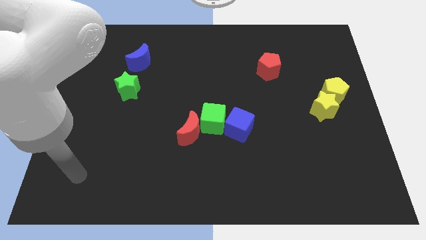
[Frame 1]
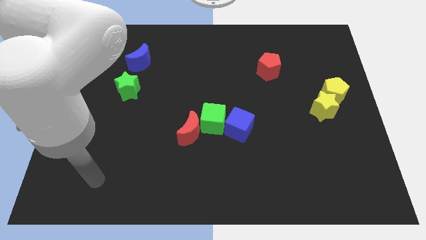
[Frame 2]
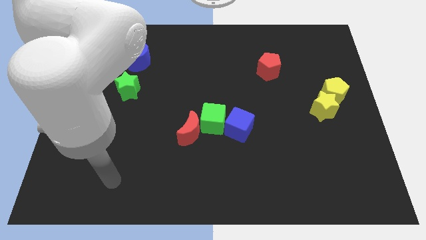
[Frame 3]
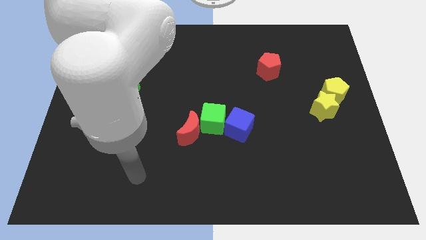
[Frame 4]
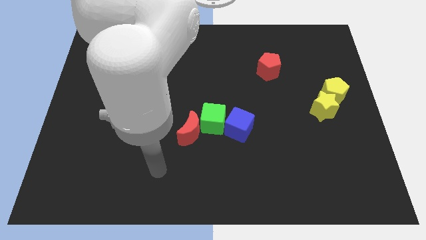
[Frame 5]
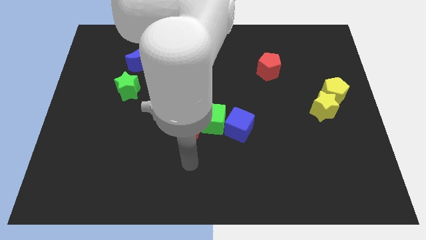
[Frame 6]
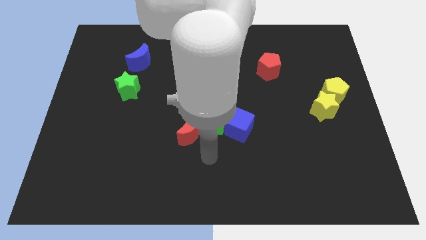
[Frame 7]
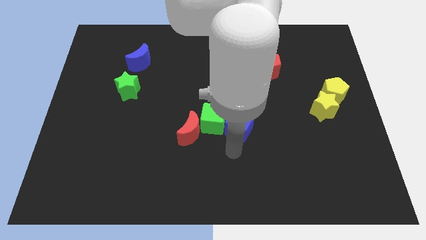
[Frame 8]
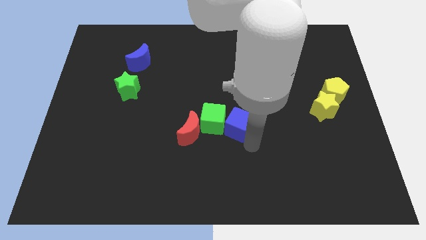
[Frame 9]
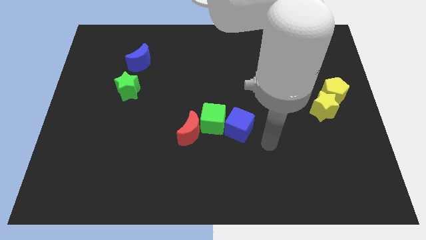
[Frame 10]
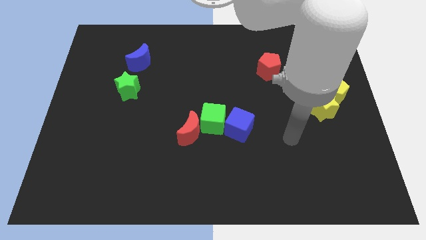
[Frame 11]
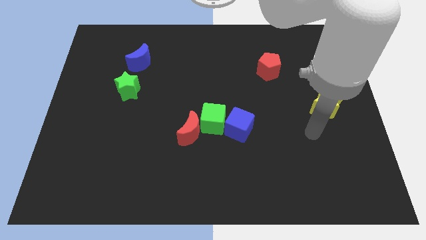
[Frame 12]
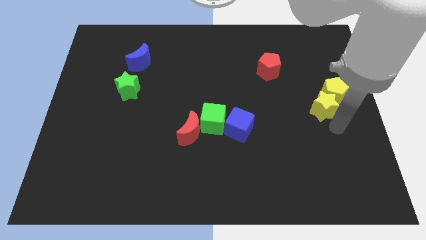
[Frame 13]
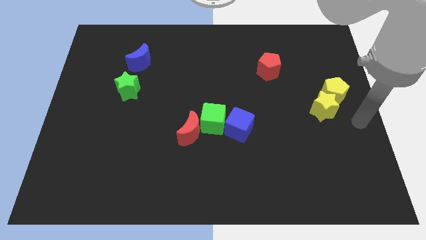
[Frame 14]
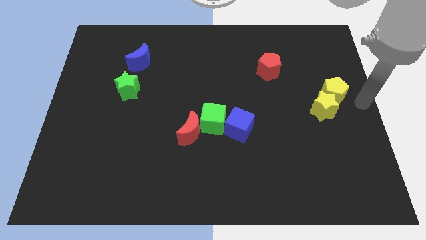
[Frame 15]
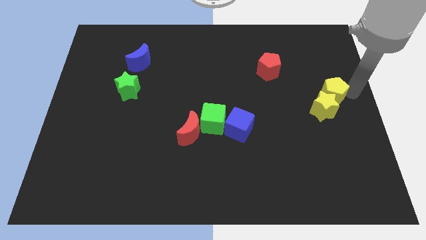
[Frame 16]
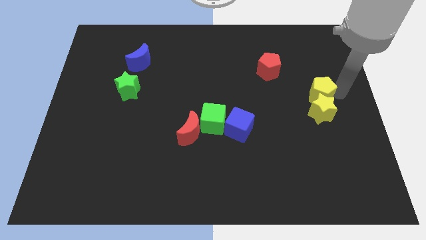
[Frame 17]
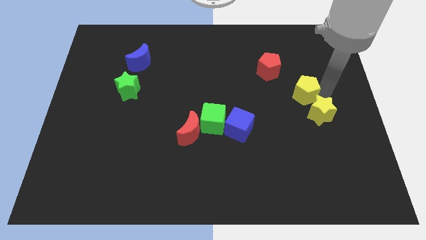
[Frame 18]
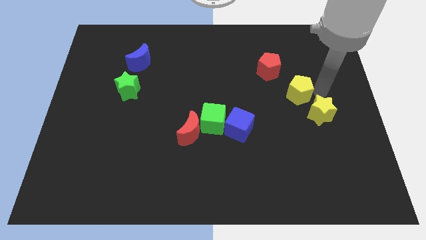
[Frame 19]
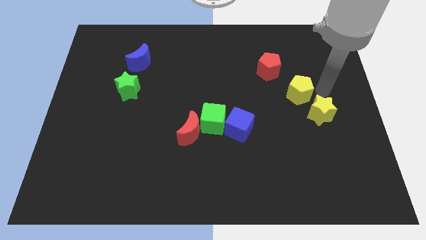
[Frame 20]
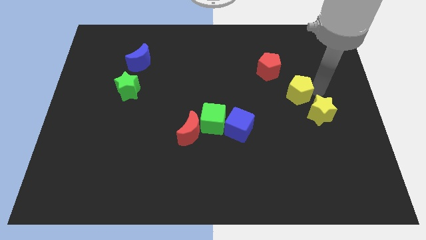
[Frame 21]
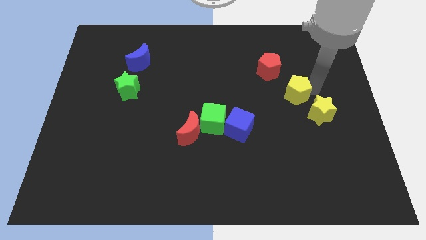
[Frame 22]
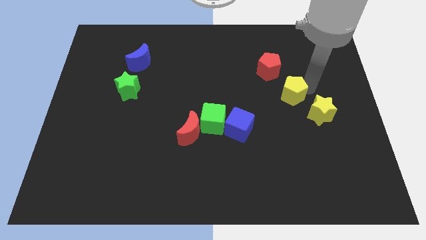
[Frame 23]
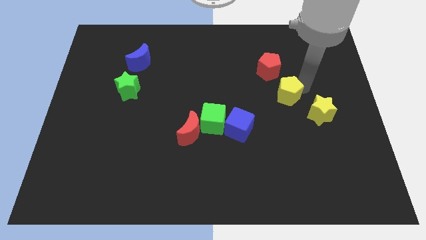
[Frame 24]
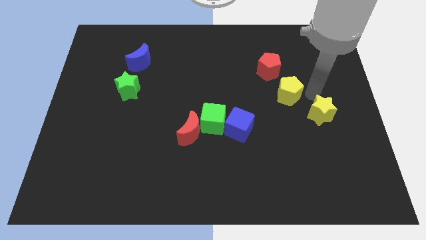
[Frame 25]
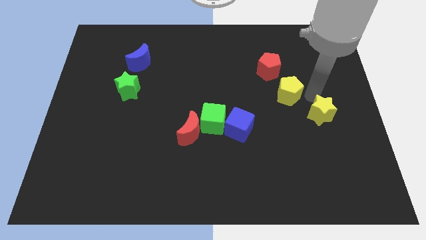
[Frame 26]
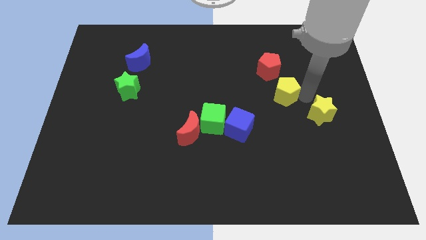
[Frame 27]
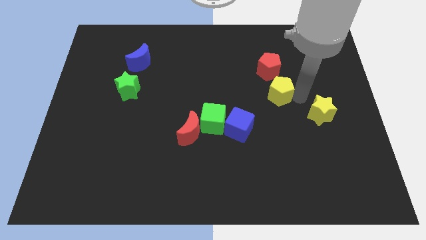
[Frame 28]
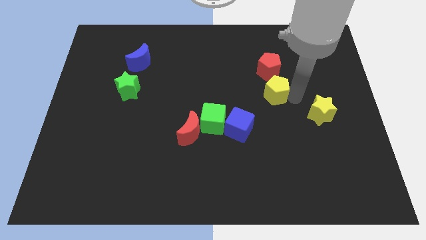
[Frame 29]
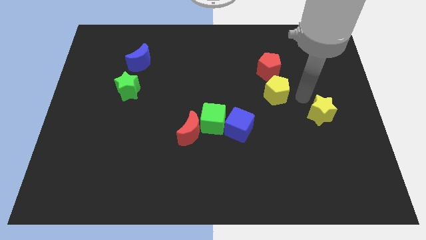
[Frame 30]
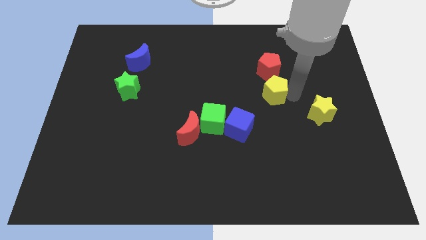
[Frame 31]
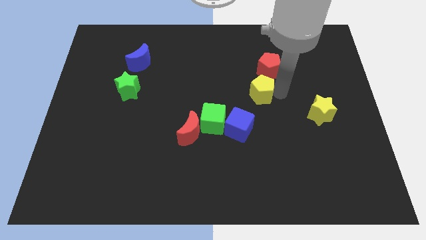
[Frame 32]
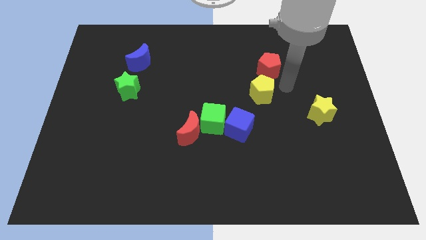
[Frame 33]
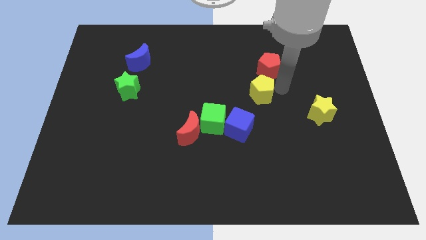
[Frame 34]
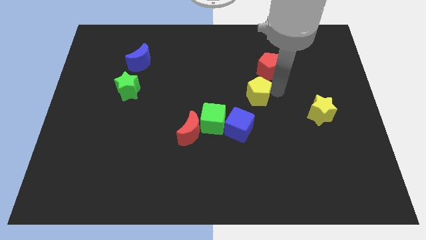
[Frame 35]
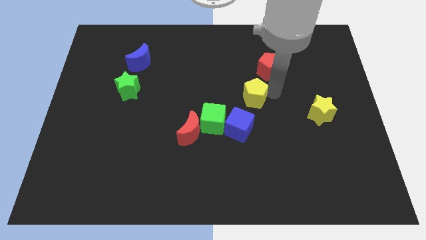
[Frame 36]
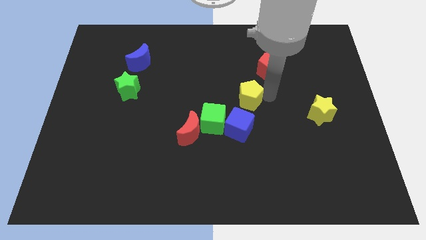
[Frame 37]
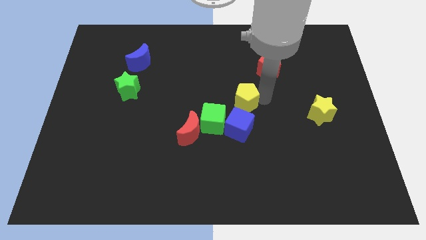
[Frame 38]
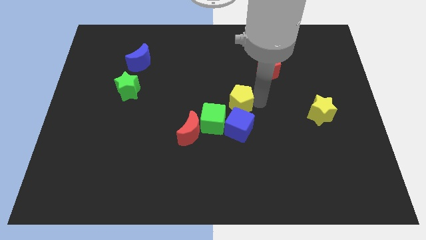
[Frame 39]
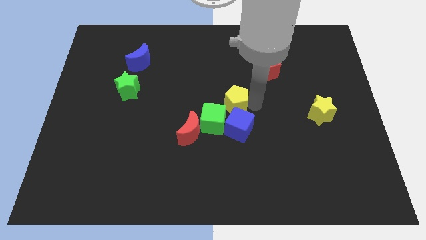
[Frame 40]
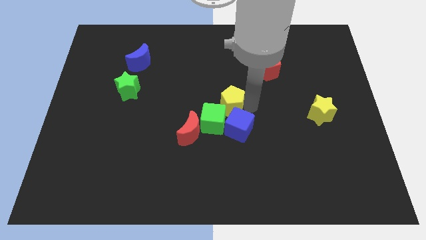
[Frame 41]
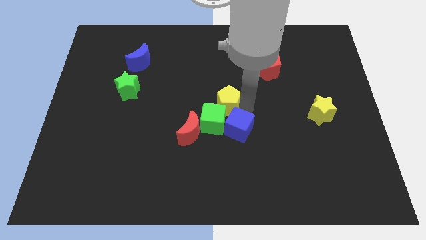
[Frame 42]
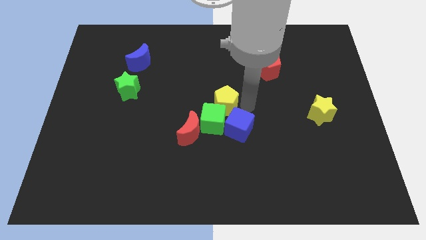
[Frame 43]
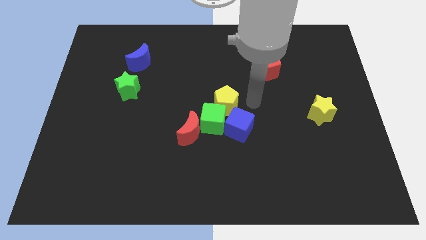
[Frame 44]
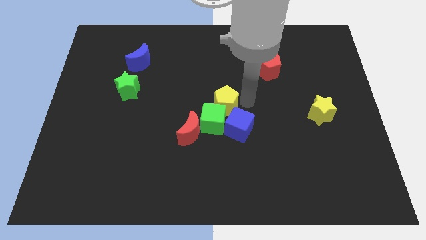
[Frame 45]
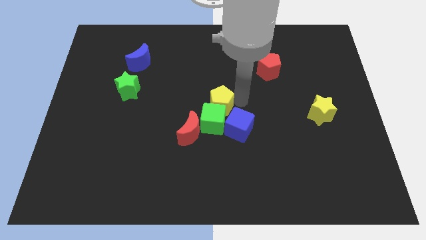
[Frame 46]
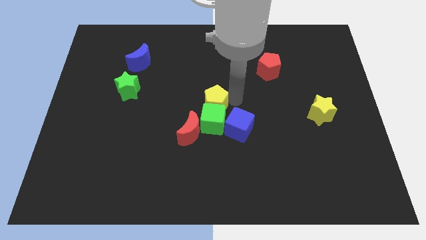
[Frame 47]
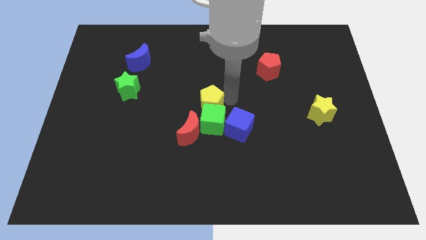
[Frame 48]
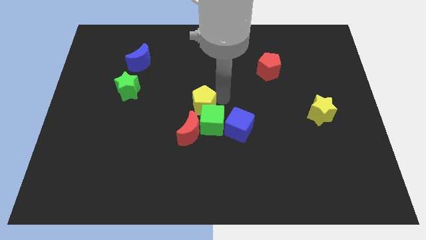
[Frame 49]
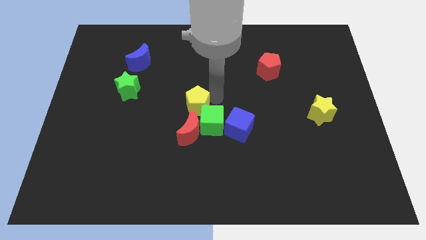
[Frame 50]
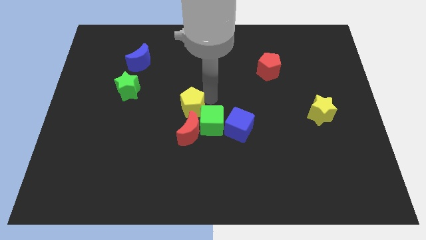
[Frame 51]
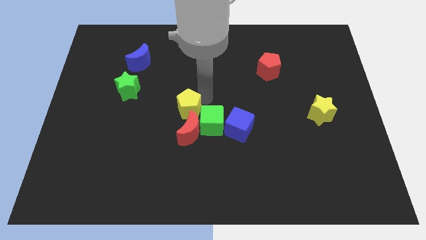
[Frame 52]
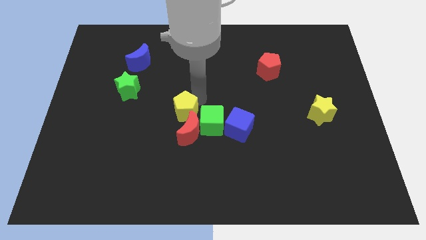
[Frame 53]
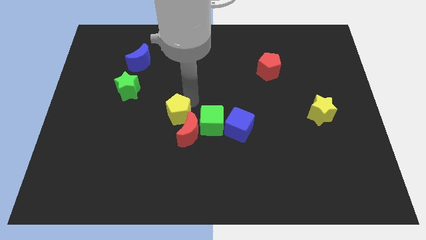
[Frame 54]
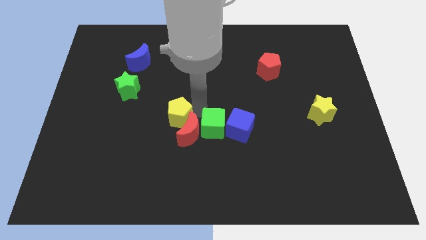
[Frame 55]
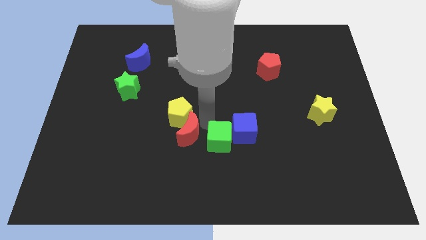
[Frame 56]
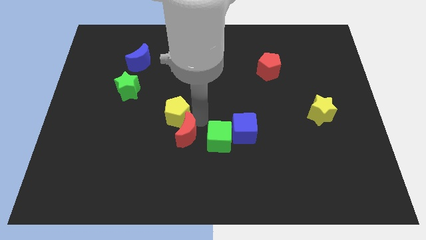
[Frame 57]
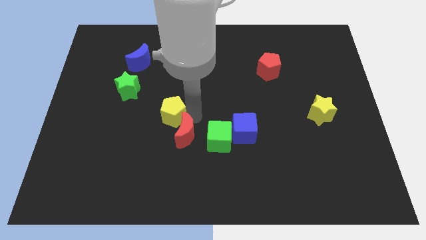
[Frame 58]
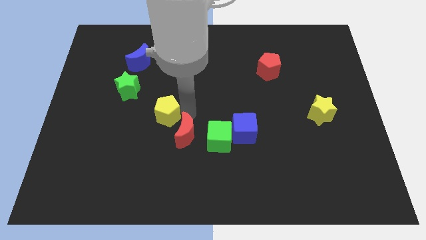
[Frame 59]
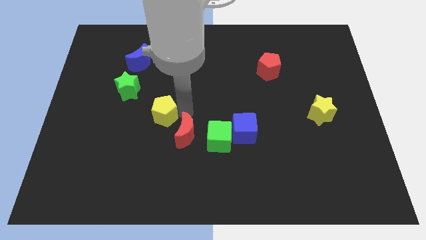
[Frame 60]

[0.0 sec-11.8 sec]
move the yellow pentagon to the bottom right of the green star

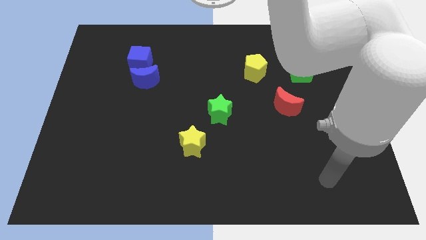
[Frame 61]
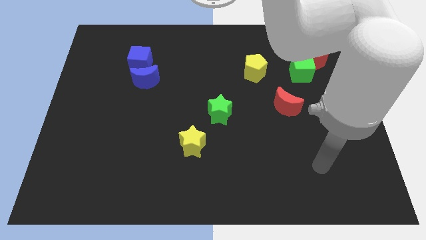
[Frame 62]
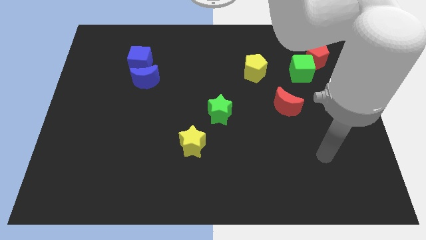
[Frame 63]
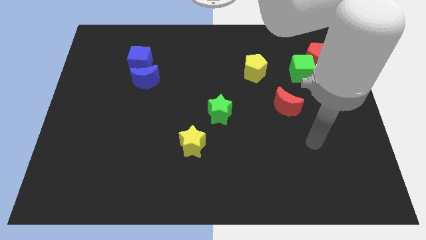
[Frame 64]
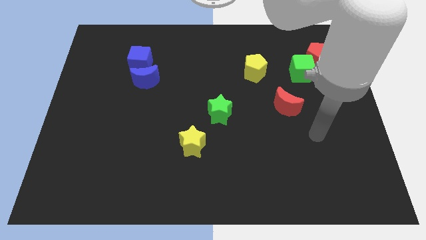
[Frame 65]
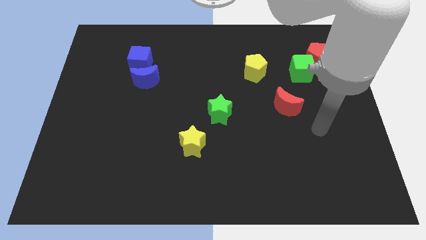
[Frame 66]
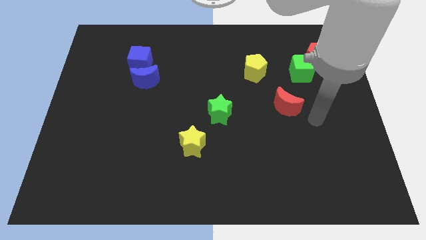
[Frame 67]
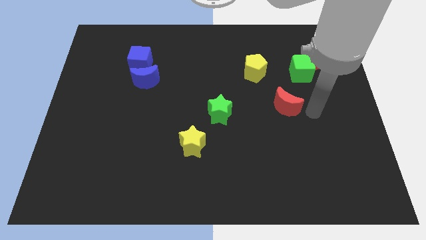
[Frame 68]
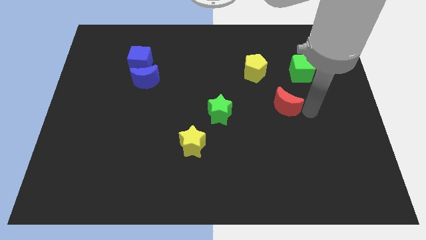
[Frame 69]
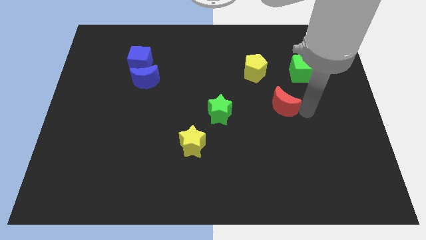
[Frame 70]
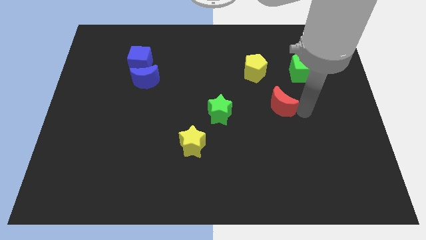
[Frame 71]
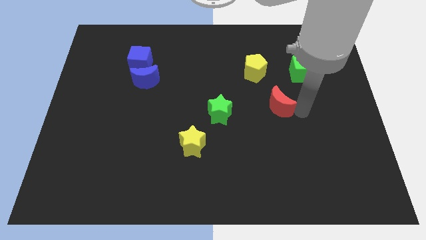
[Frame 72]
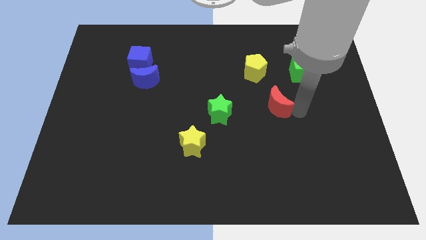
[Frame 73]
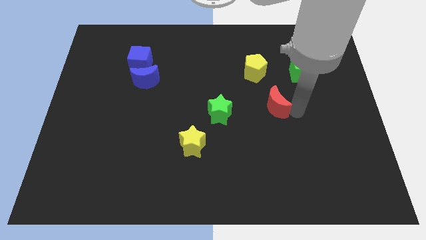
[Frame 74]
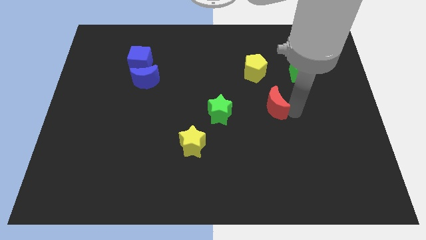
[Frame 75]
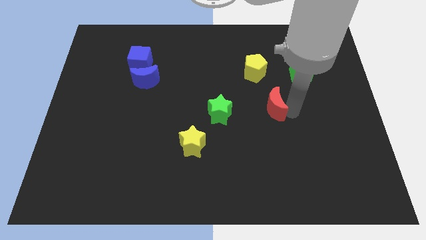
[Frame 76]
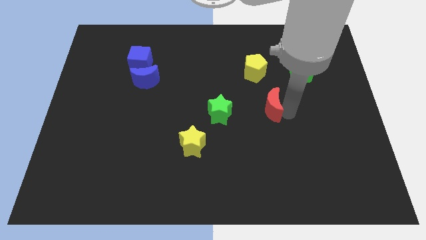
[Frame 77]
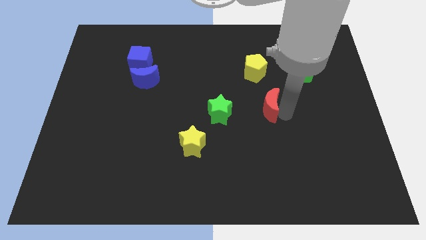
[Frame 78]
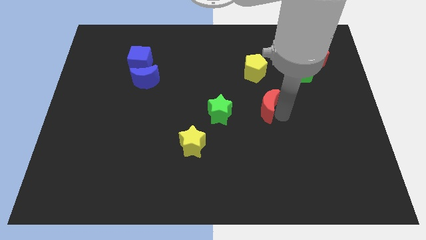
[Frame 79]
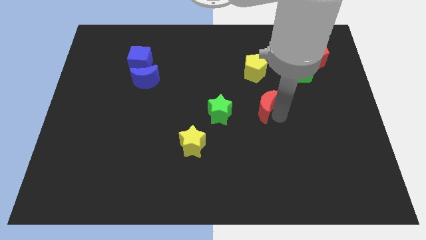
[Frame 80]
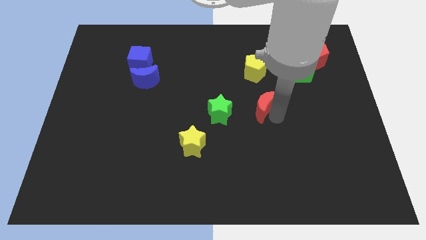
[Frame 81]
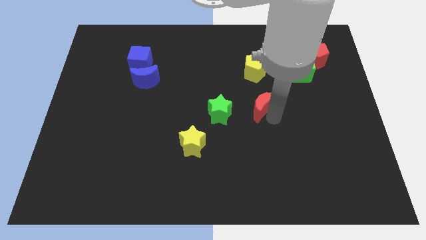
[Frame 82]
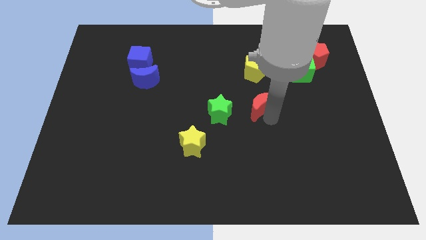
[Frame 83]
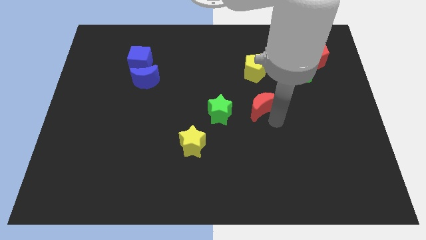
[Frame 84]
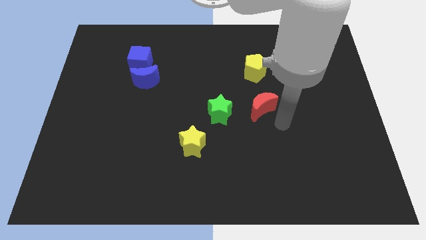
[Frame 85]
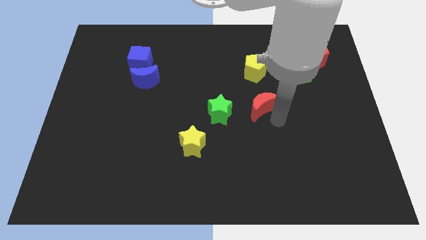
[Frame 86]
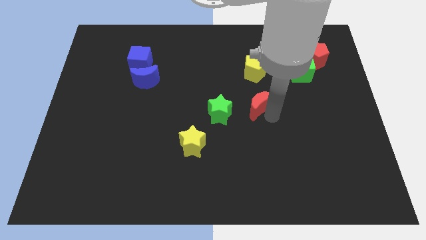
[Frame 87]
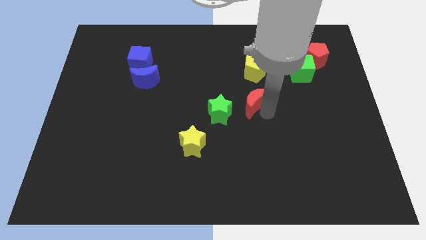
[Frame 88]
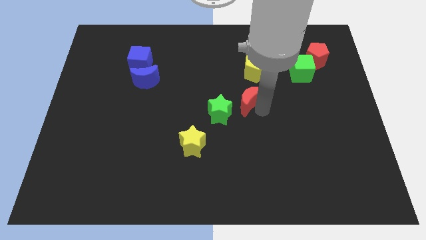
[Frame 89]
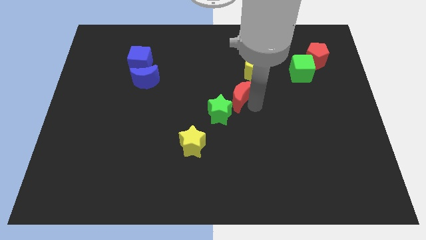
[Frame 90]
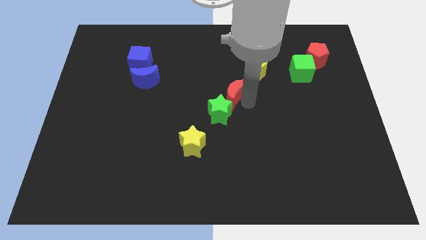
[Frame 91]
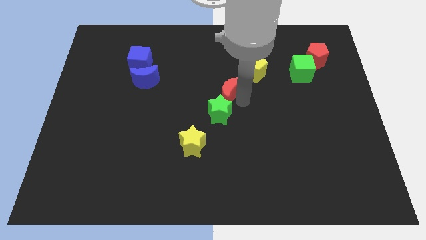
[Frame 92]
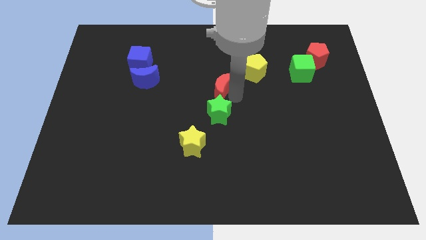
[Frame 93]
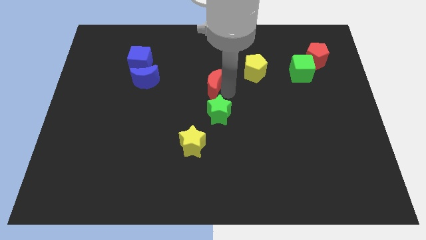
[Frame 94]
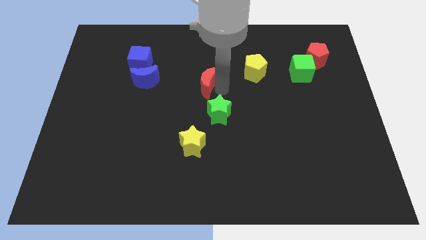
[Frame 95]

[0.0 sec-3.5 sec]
move the red moon right of the blue moon
